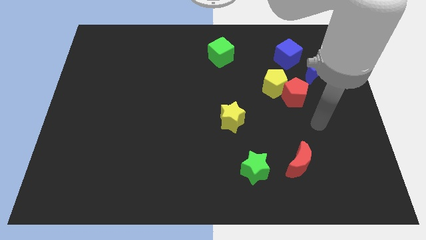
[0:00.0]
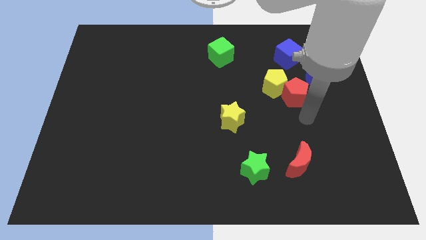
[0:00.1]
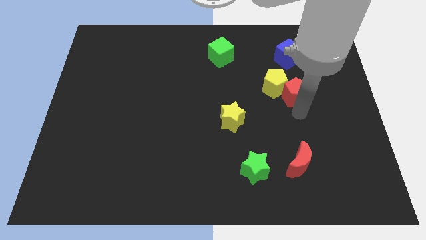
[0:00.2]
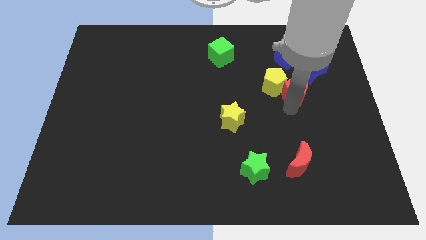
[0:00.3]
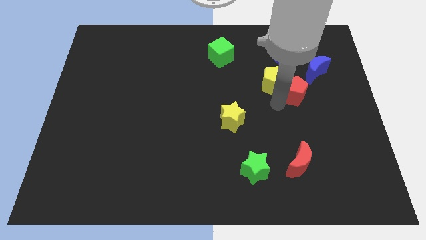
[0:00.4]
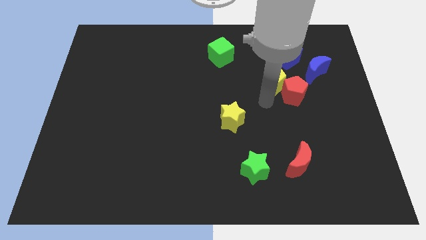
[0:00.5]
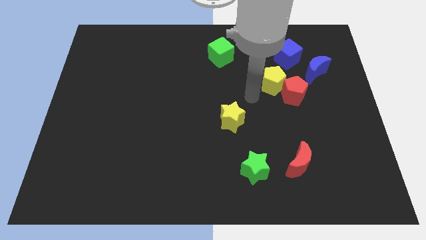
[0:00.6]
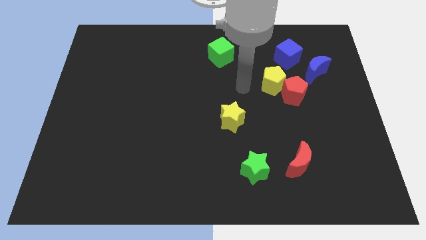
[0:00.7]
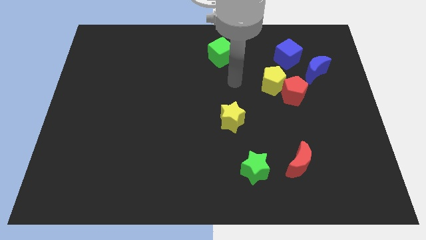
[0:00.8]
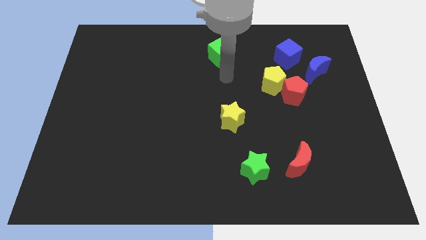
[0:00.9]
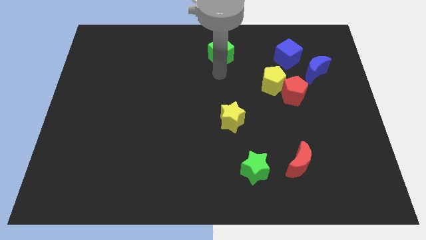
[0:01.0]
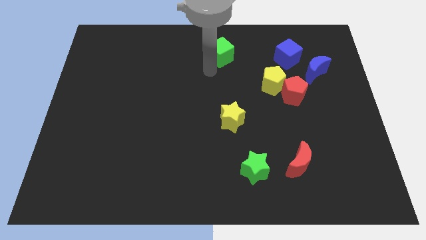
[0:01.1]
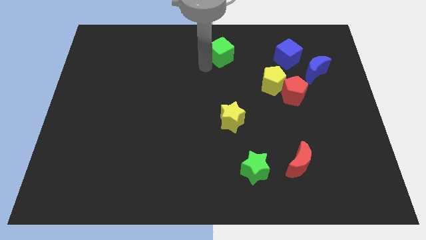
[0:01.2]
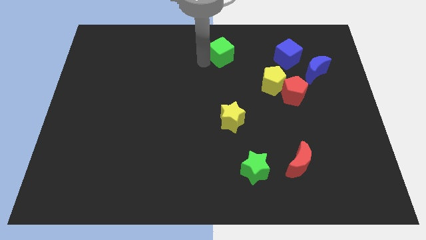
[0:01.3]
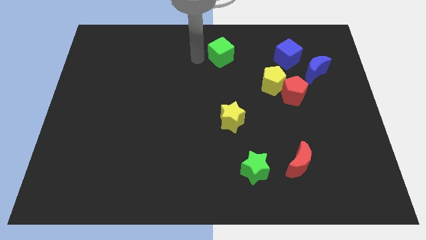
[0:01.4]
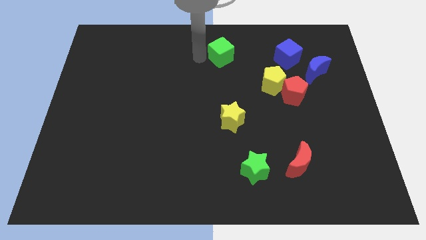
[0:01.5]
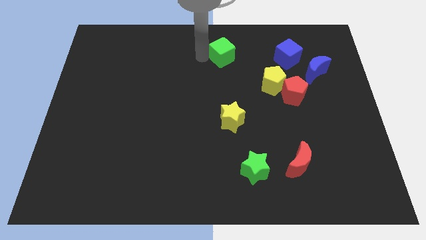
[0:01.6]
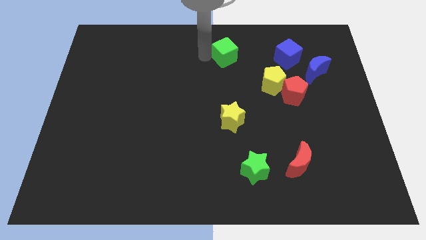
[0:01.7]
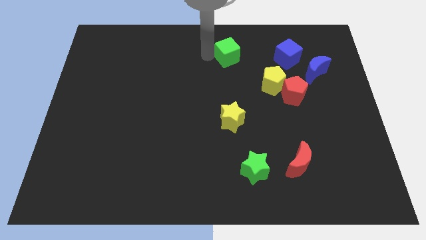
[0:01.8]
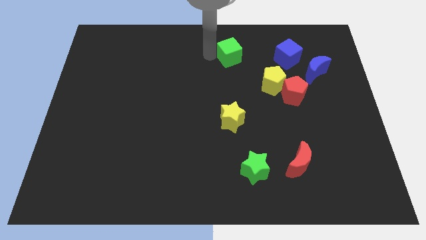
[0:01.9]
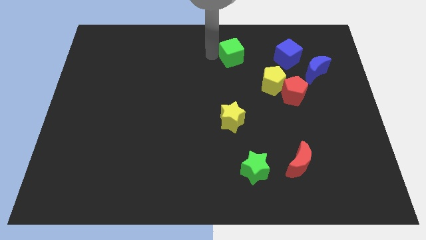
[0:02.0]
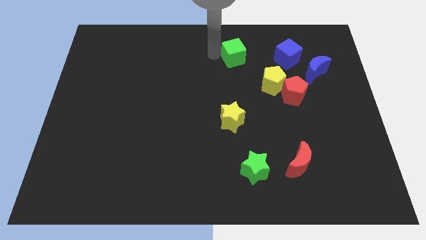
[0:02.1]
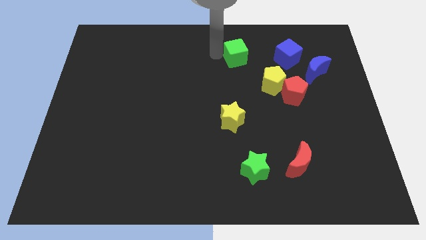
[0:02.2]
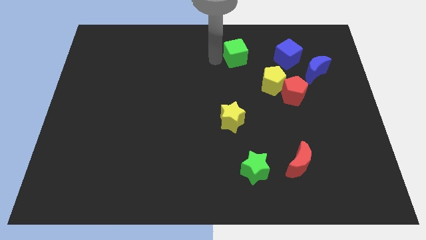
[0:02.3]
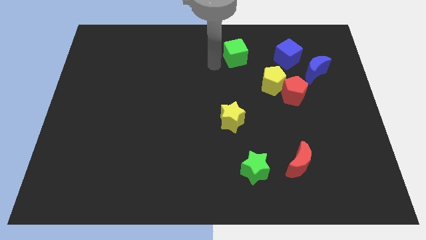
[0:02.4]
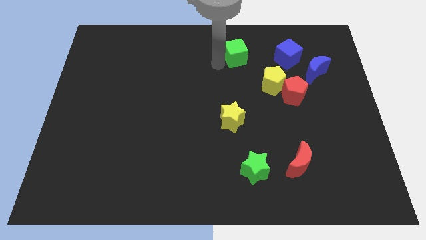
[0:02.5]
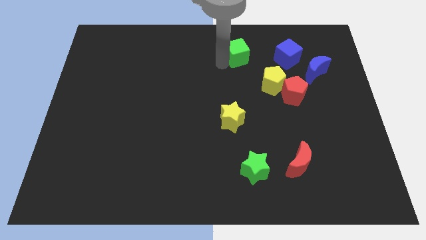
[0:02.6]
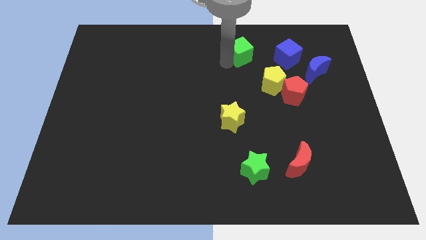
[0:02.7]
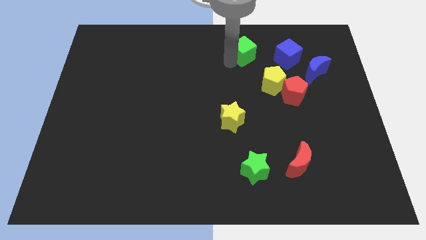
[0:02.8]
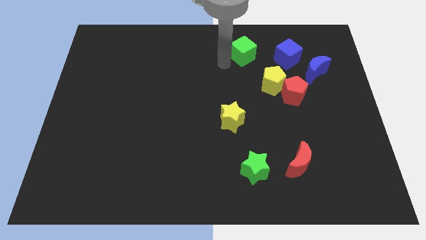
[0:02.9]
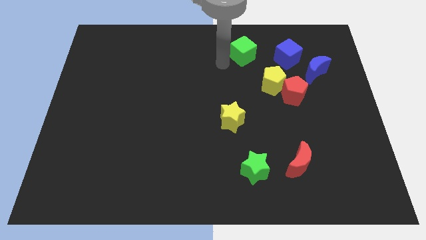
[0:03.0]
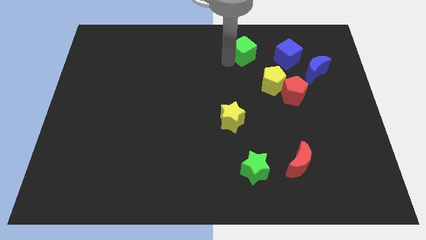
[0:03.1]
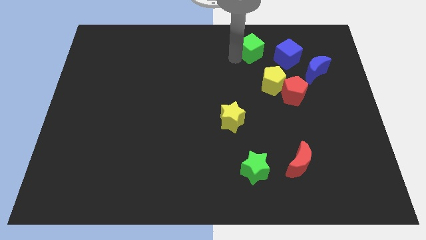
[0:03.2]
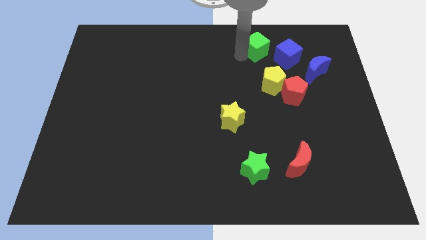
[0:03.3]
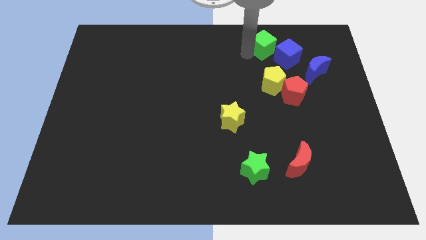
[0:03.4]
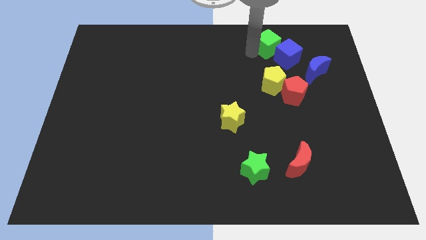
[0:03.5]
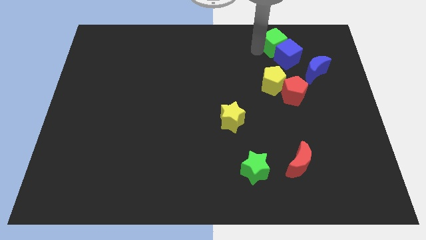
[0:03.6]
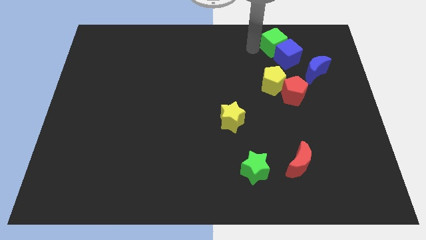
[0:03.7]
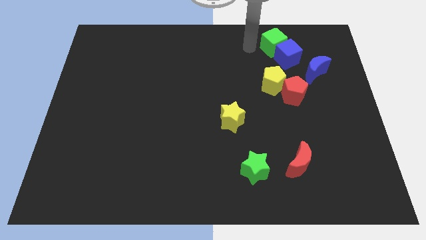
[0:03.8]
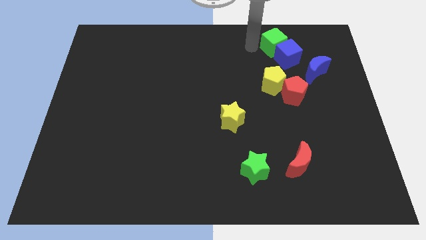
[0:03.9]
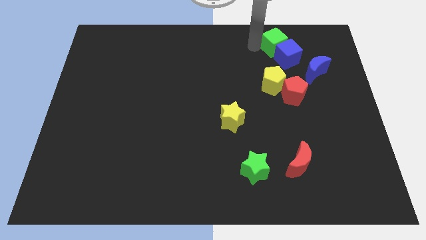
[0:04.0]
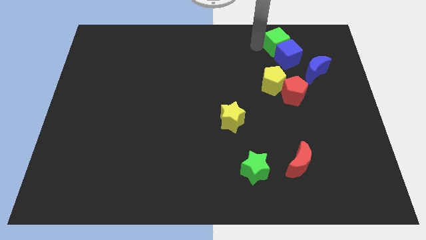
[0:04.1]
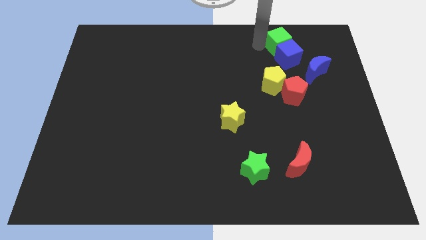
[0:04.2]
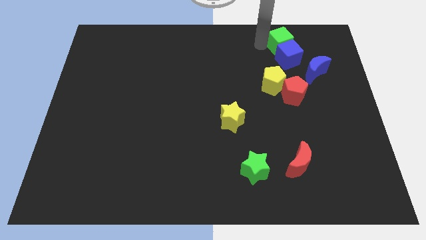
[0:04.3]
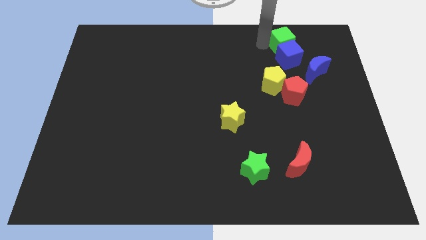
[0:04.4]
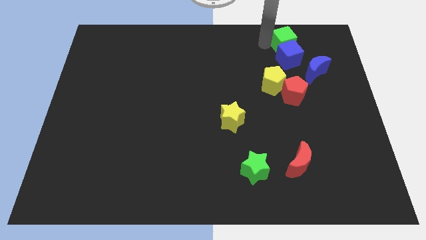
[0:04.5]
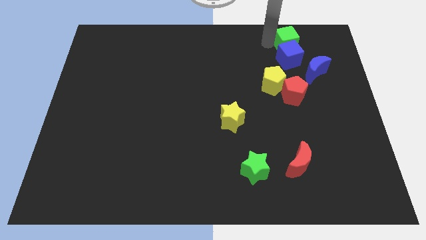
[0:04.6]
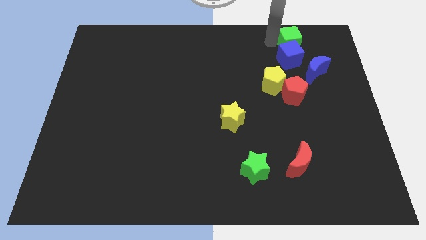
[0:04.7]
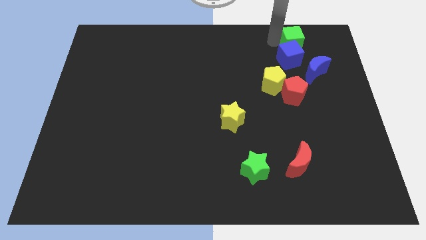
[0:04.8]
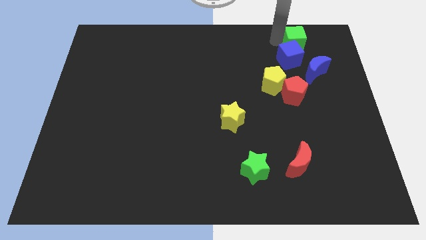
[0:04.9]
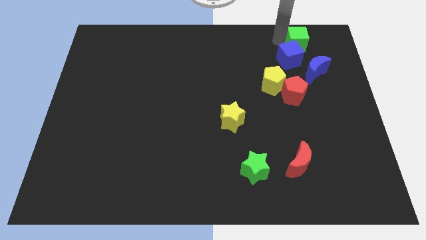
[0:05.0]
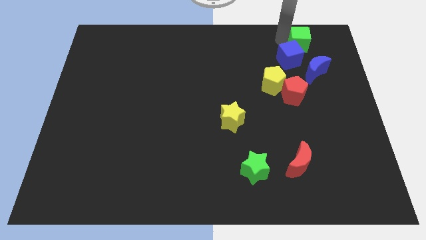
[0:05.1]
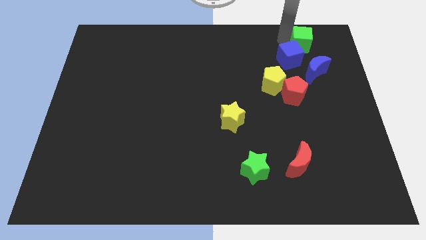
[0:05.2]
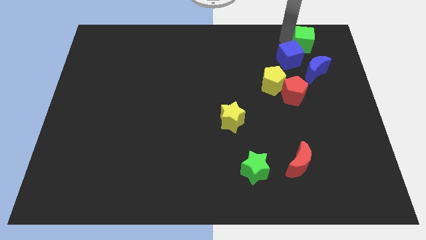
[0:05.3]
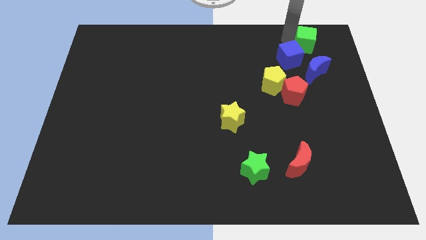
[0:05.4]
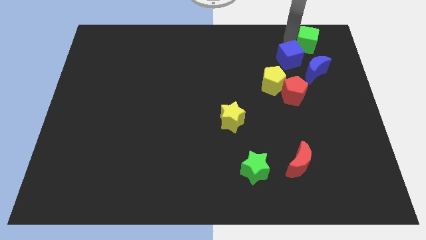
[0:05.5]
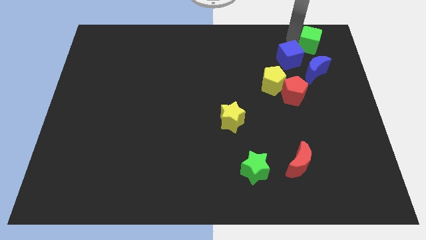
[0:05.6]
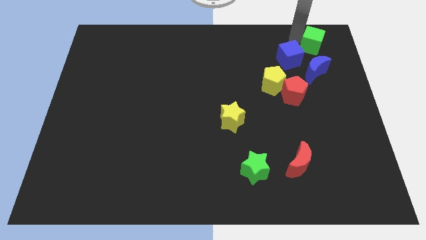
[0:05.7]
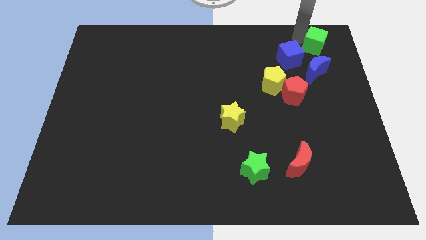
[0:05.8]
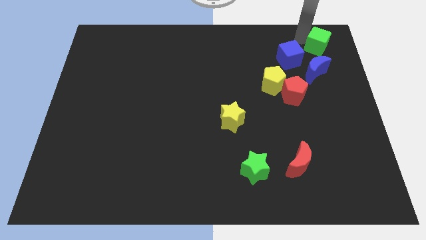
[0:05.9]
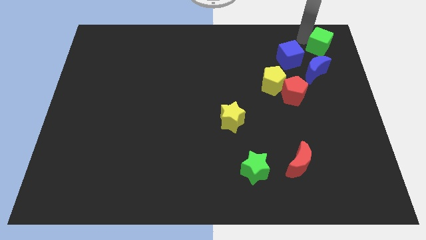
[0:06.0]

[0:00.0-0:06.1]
move the green cube to the top right of the board

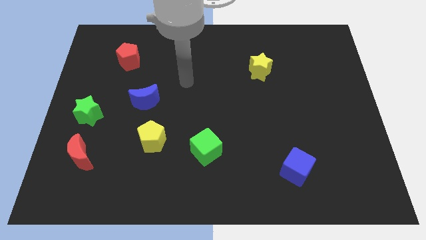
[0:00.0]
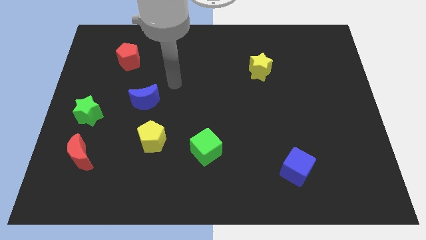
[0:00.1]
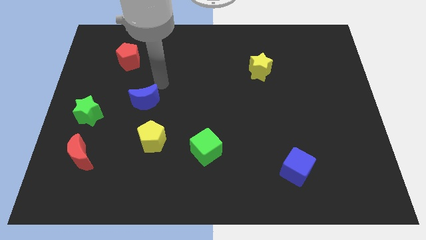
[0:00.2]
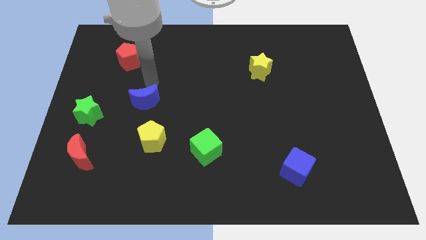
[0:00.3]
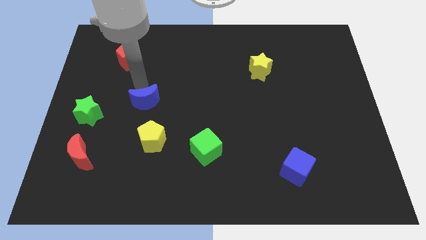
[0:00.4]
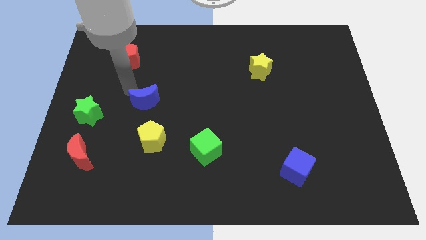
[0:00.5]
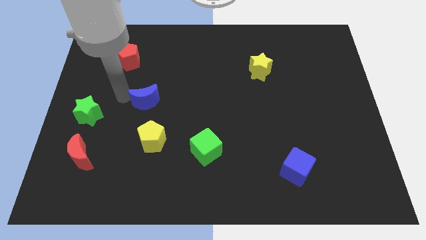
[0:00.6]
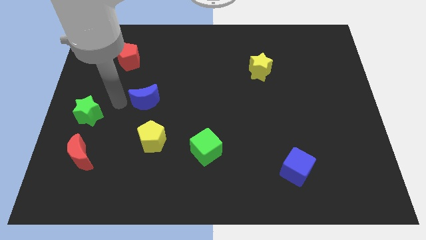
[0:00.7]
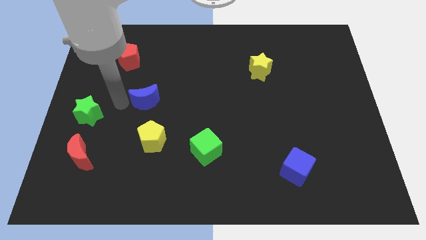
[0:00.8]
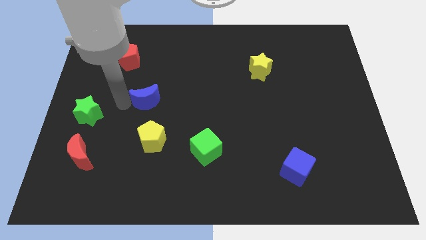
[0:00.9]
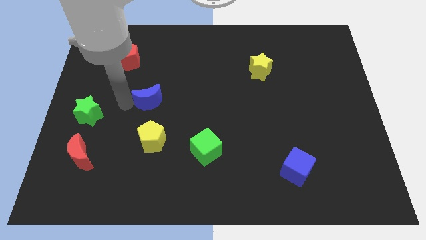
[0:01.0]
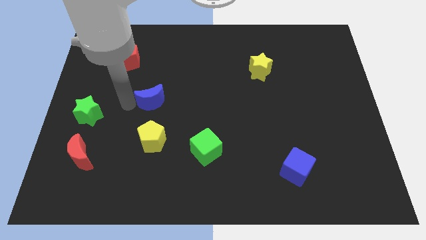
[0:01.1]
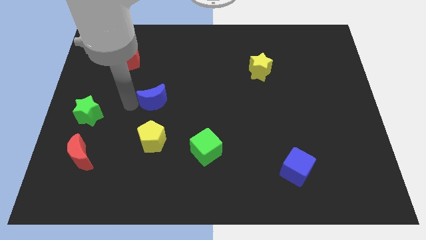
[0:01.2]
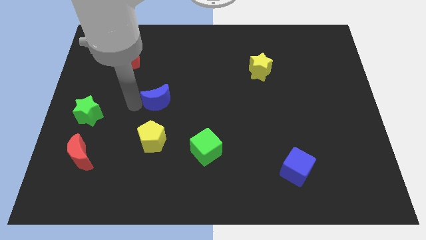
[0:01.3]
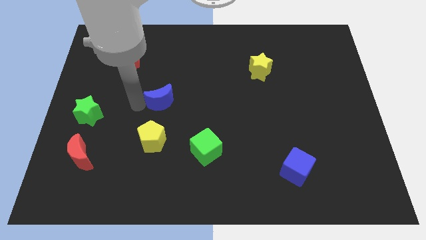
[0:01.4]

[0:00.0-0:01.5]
push the blue moon to the center

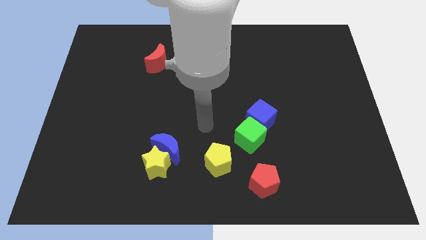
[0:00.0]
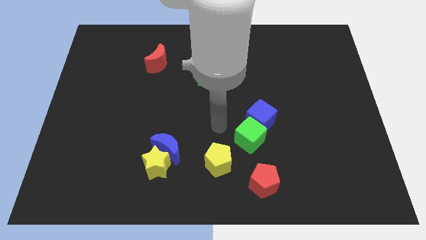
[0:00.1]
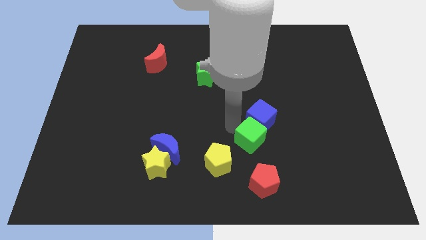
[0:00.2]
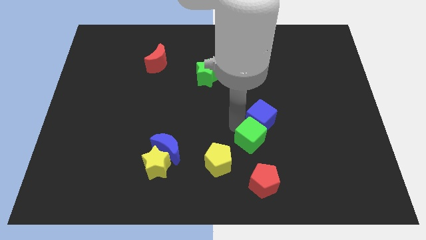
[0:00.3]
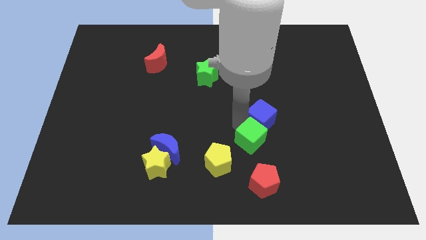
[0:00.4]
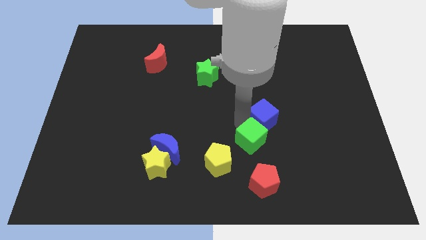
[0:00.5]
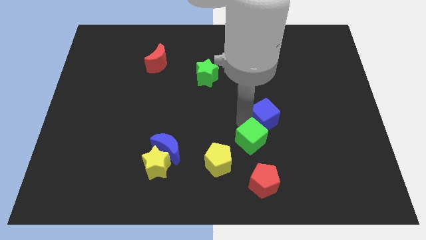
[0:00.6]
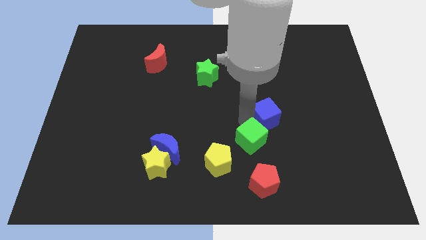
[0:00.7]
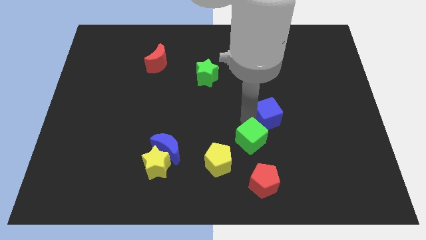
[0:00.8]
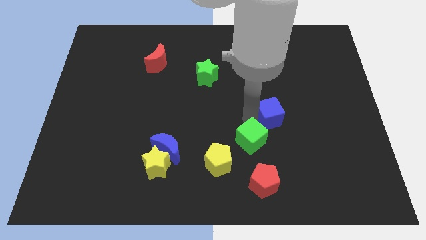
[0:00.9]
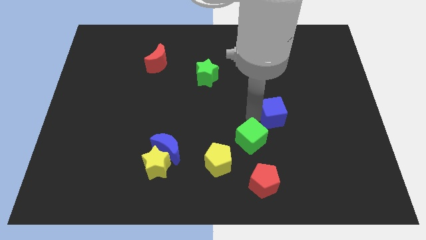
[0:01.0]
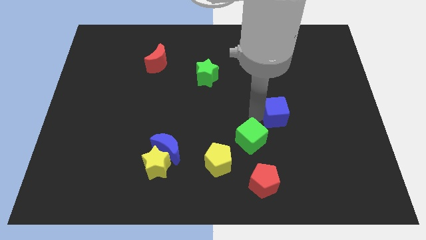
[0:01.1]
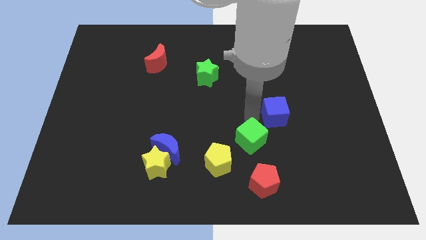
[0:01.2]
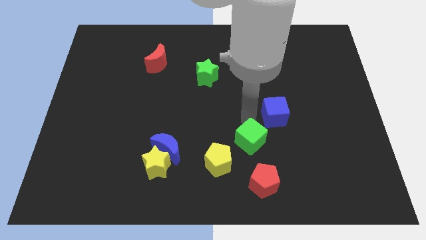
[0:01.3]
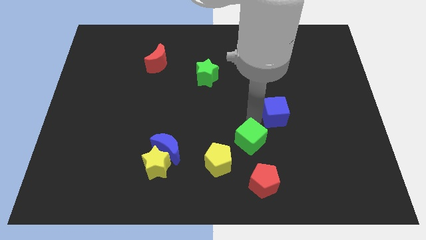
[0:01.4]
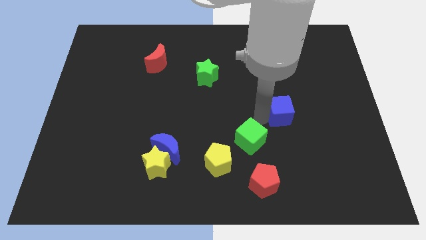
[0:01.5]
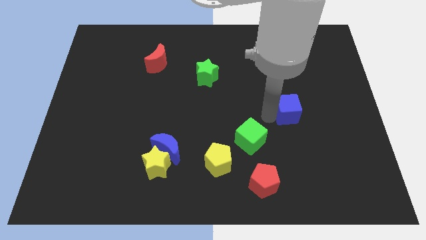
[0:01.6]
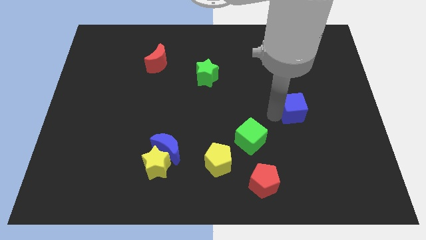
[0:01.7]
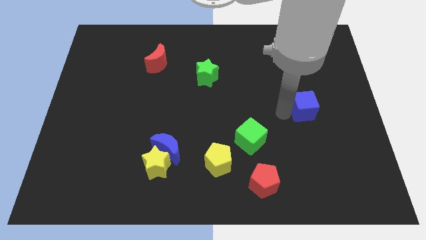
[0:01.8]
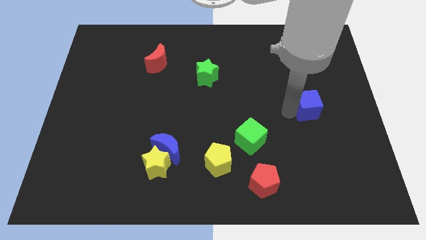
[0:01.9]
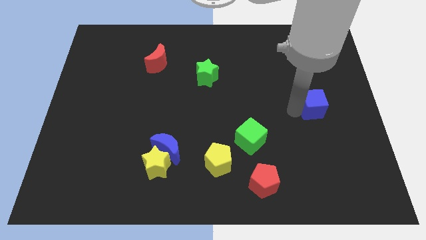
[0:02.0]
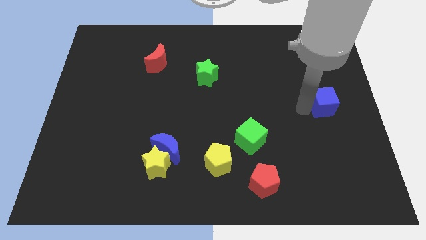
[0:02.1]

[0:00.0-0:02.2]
slide the blue cube to the right side of the board
